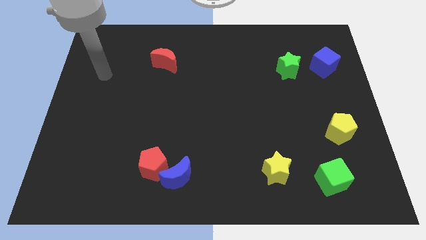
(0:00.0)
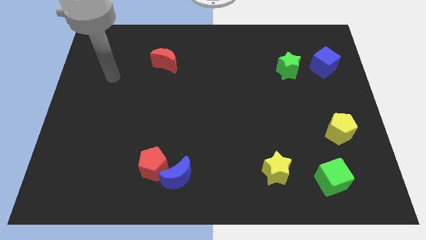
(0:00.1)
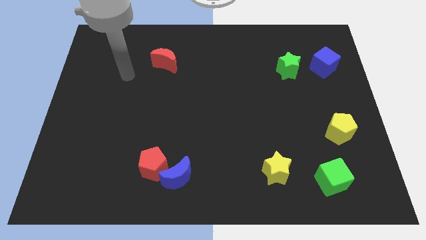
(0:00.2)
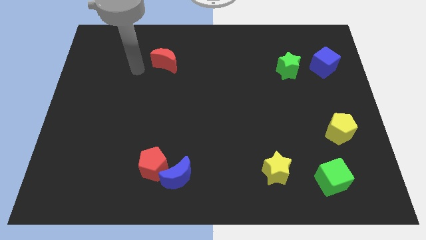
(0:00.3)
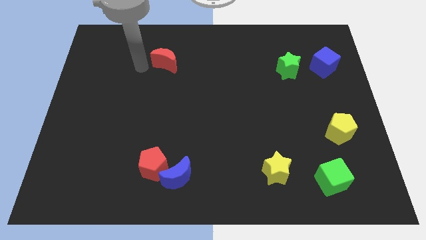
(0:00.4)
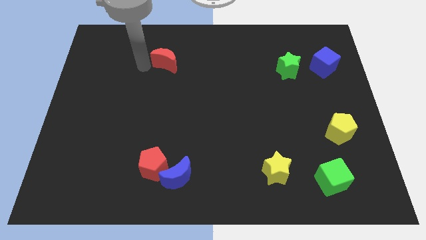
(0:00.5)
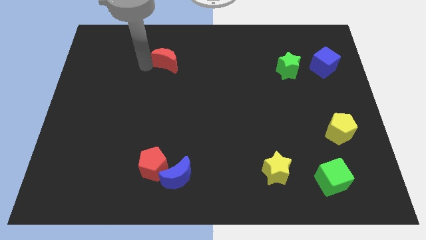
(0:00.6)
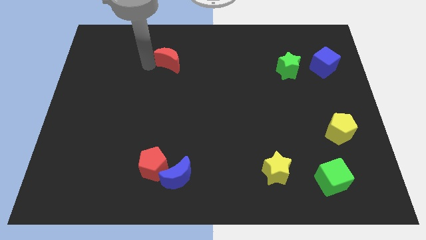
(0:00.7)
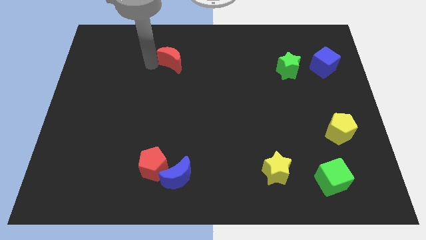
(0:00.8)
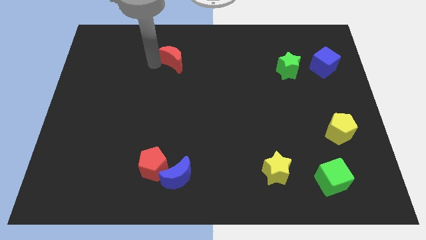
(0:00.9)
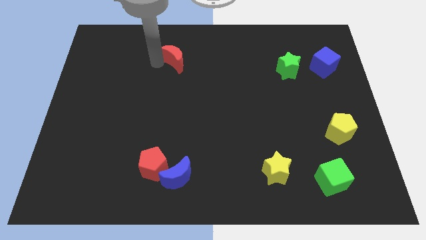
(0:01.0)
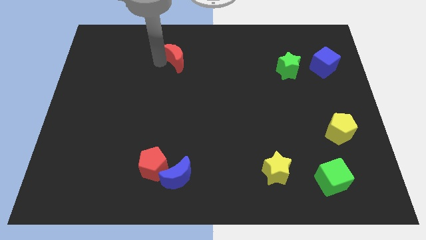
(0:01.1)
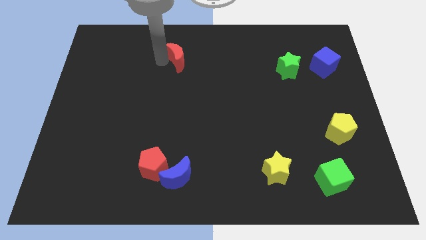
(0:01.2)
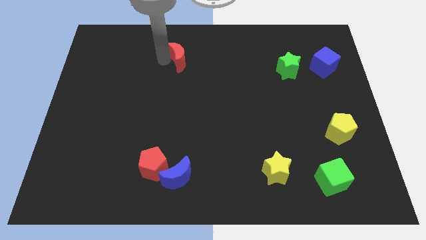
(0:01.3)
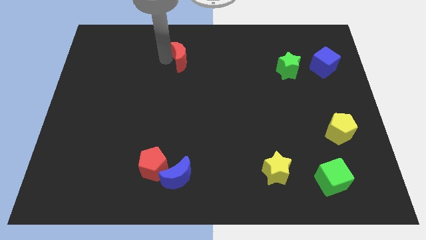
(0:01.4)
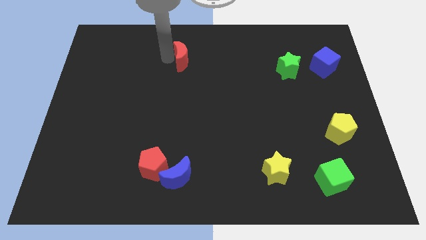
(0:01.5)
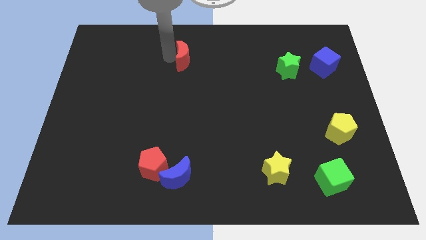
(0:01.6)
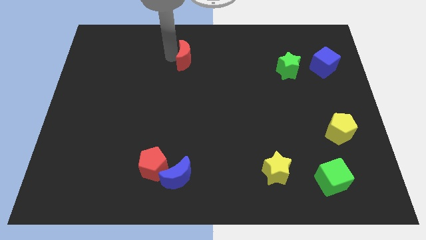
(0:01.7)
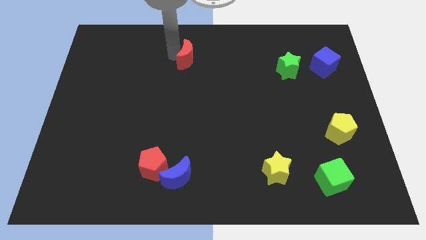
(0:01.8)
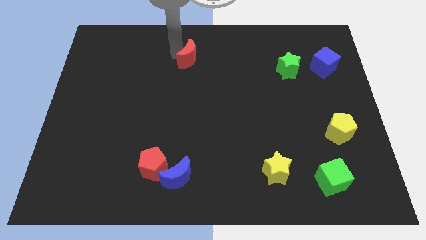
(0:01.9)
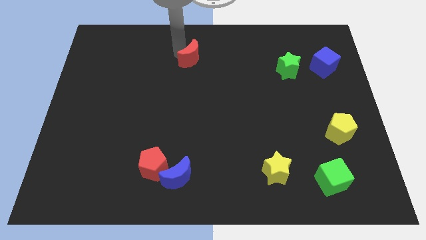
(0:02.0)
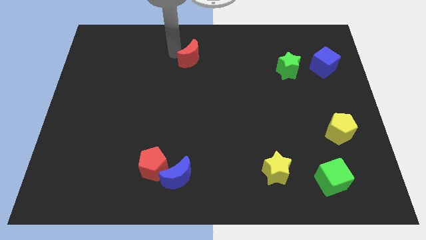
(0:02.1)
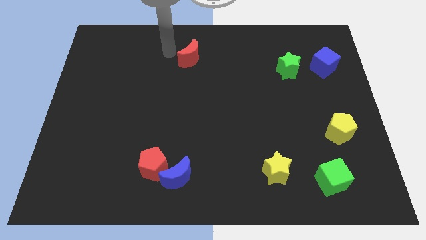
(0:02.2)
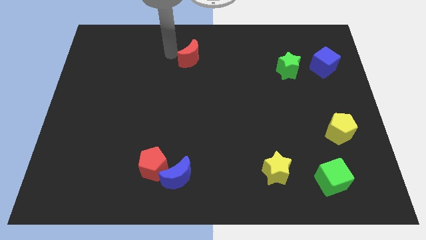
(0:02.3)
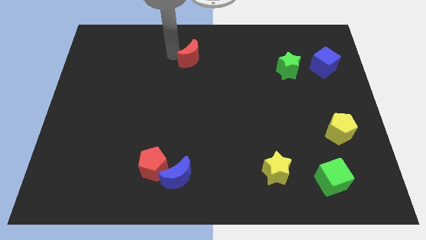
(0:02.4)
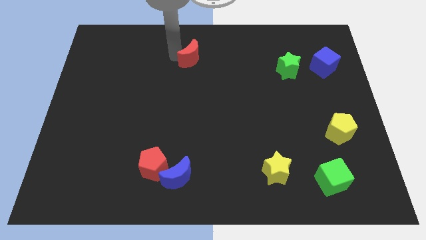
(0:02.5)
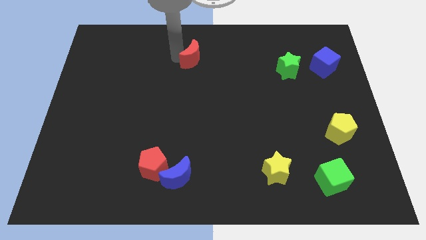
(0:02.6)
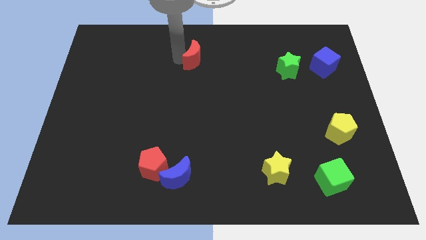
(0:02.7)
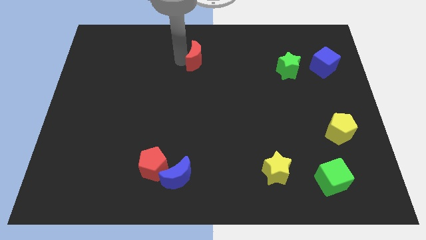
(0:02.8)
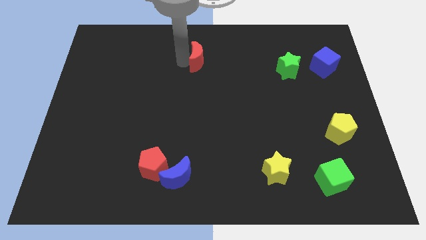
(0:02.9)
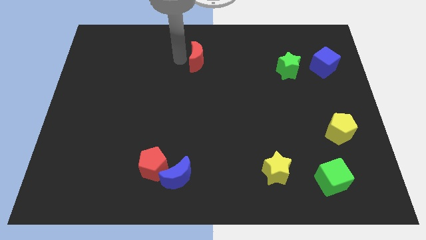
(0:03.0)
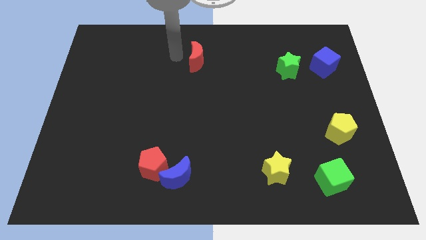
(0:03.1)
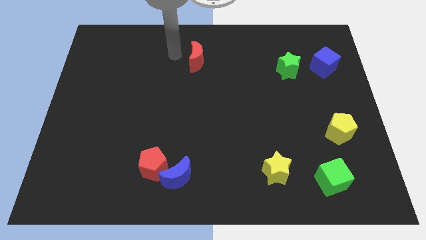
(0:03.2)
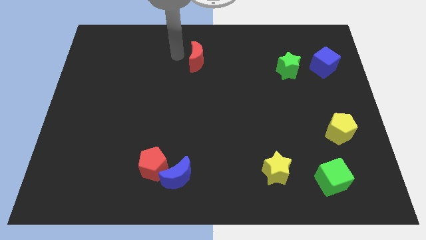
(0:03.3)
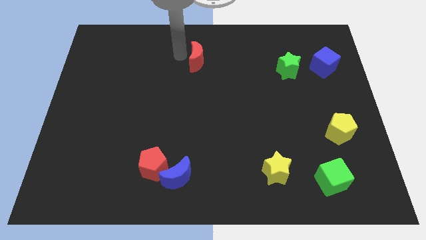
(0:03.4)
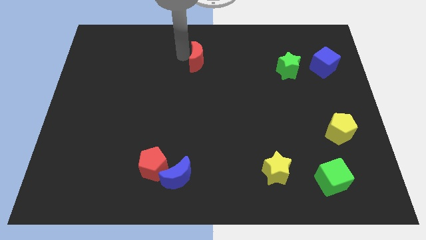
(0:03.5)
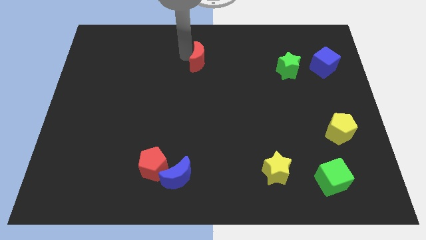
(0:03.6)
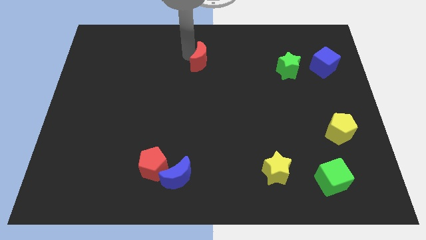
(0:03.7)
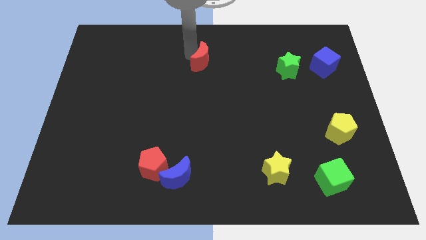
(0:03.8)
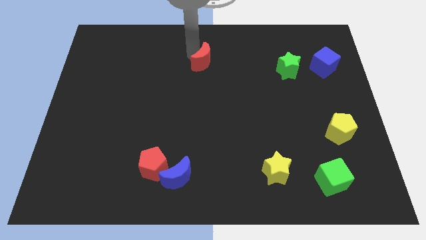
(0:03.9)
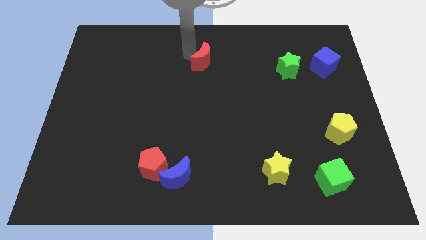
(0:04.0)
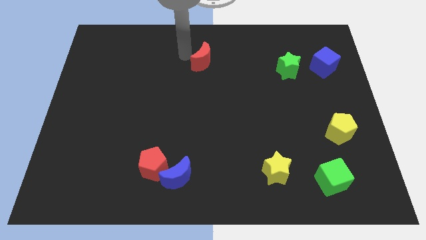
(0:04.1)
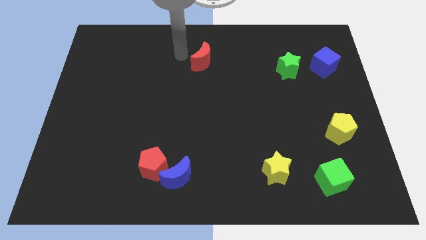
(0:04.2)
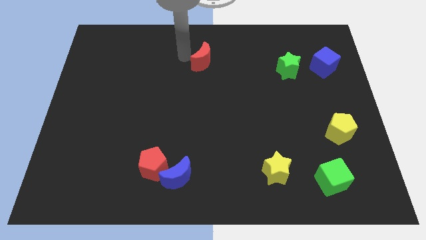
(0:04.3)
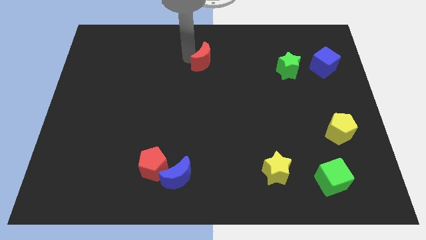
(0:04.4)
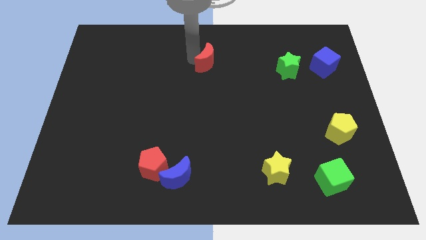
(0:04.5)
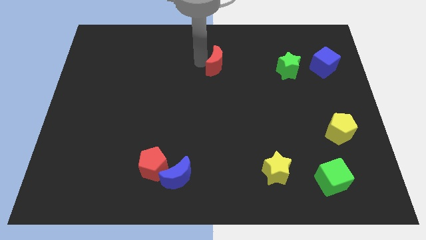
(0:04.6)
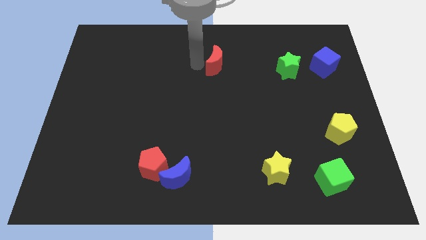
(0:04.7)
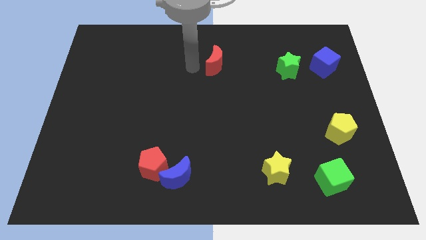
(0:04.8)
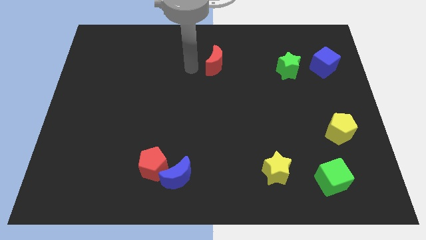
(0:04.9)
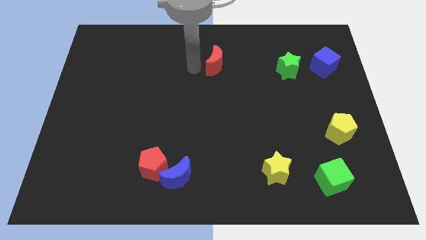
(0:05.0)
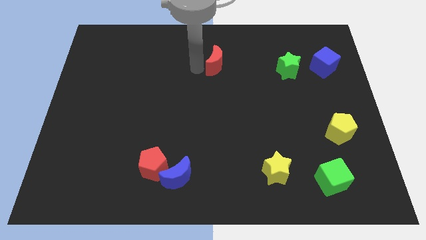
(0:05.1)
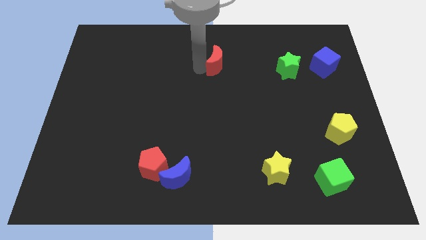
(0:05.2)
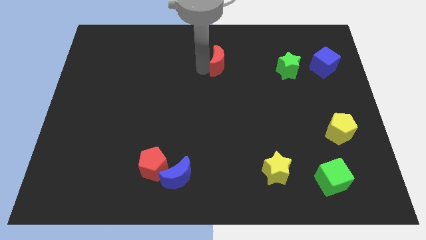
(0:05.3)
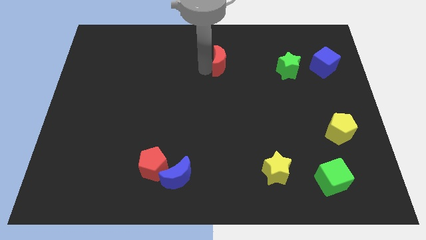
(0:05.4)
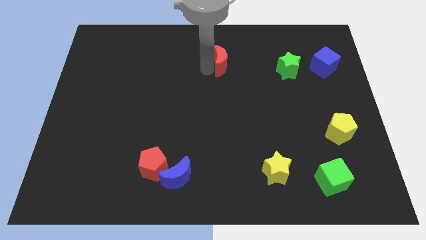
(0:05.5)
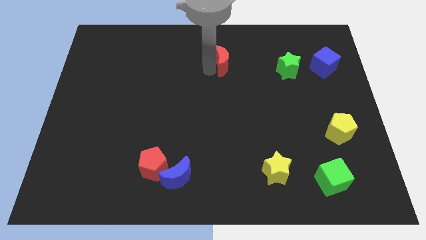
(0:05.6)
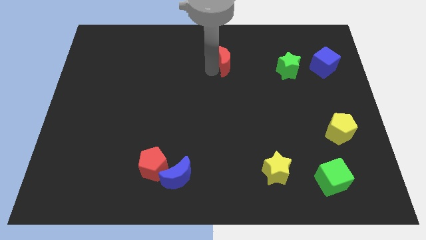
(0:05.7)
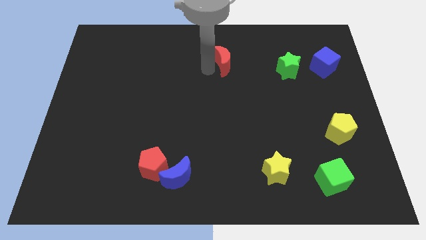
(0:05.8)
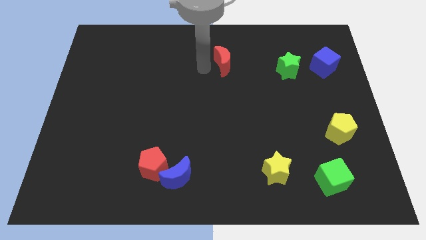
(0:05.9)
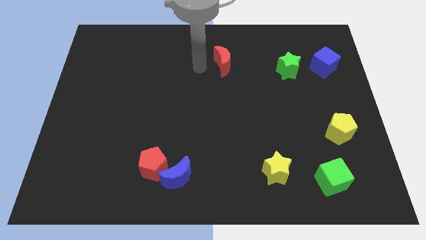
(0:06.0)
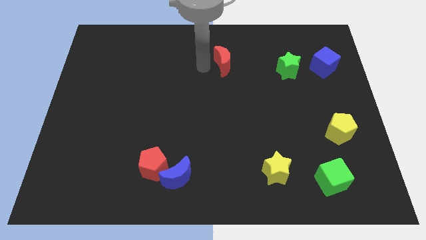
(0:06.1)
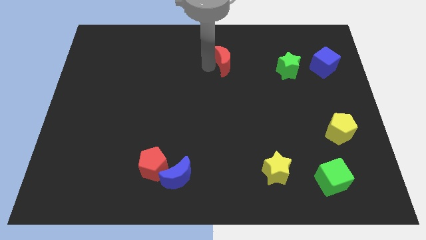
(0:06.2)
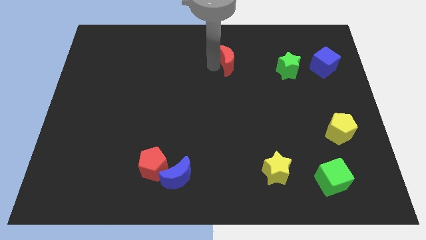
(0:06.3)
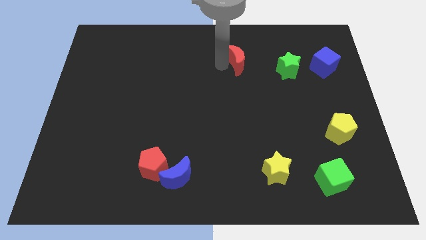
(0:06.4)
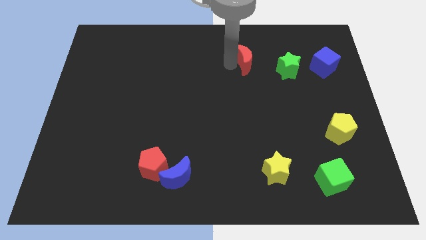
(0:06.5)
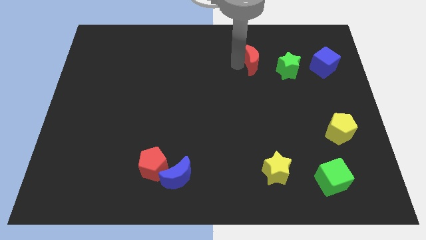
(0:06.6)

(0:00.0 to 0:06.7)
move the red moon diagonally up and to the left of the green star

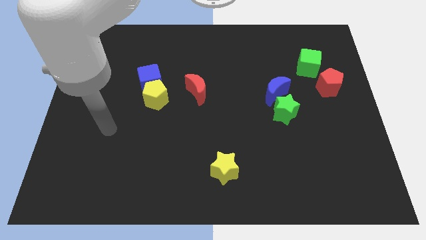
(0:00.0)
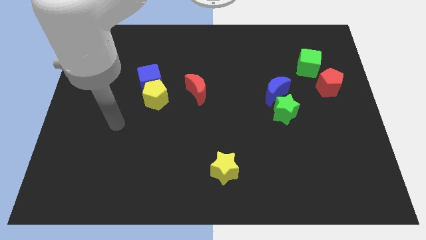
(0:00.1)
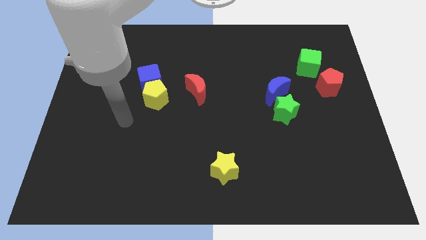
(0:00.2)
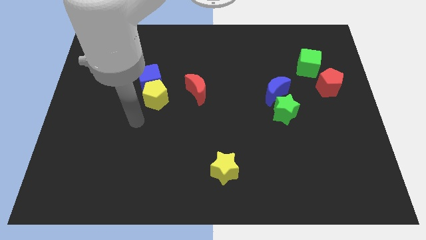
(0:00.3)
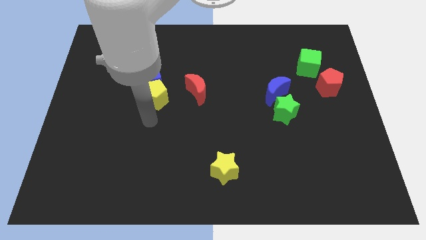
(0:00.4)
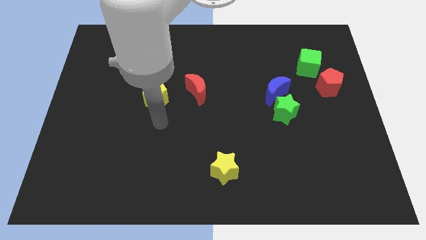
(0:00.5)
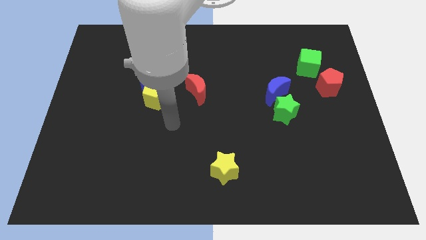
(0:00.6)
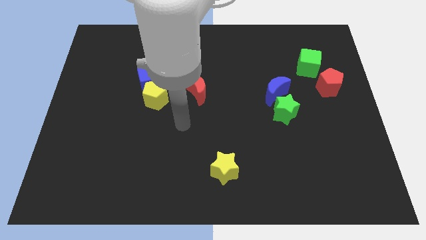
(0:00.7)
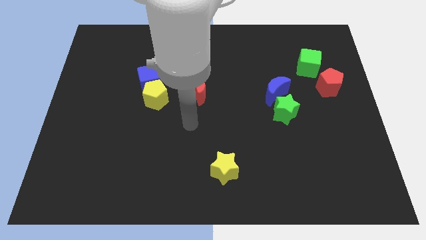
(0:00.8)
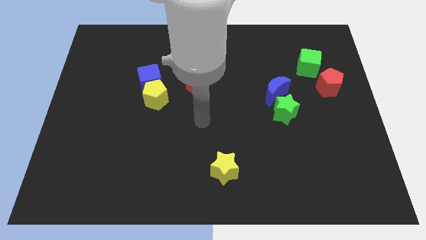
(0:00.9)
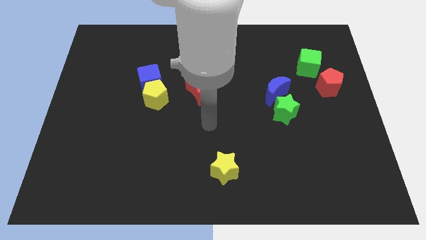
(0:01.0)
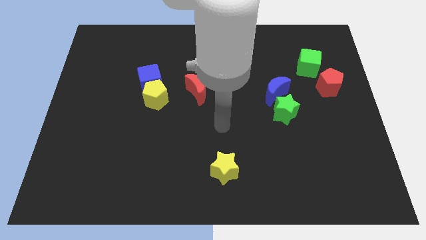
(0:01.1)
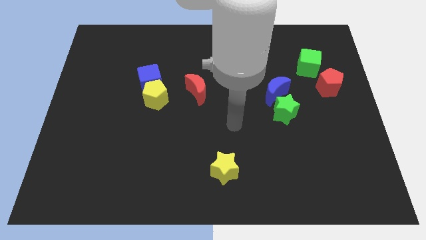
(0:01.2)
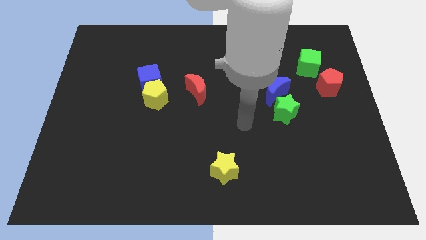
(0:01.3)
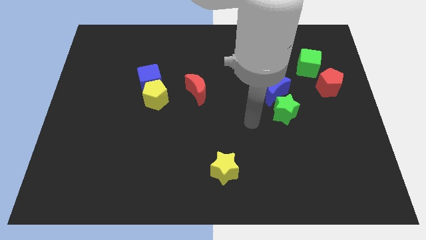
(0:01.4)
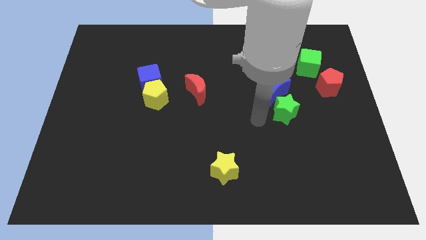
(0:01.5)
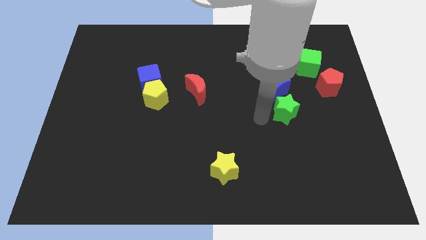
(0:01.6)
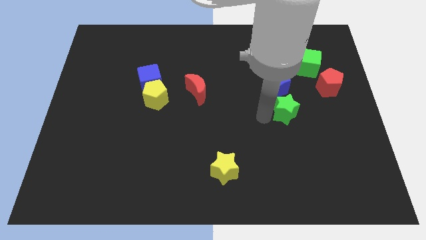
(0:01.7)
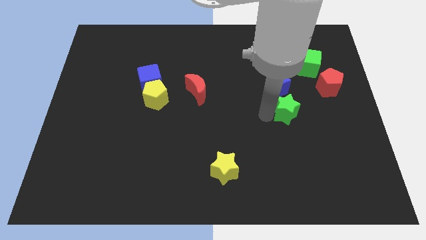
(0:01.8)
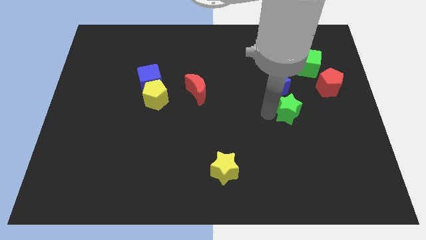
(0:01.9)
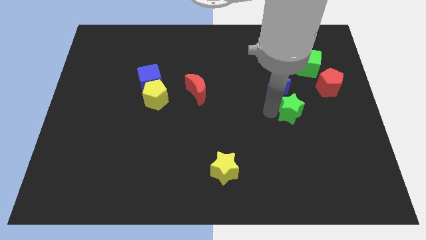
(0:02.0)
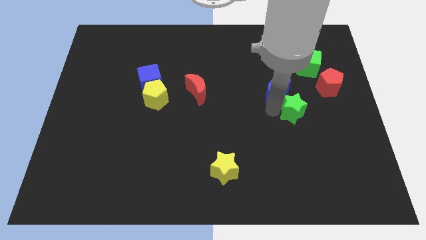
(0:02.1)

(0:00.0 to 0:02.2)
move the green star to the bottom left side of the red pentagon
